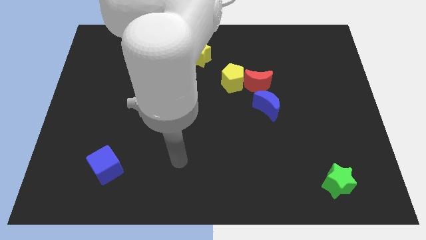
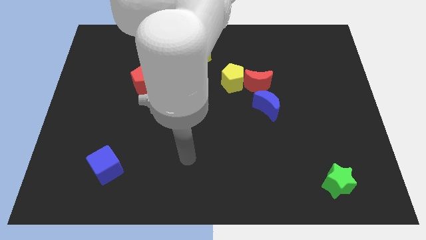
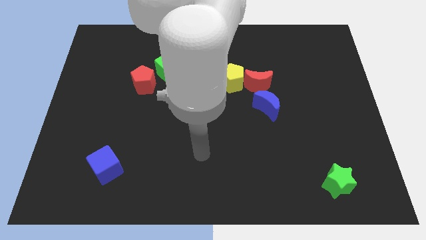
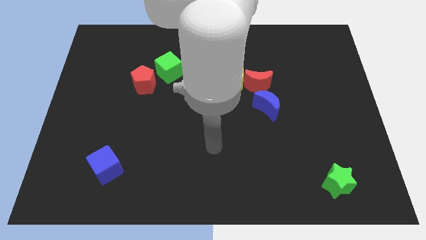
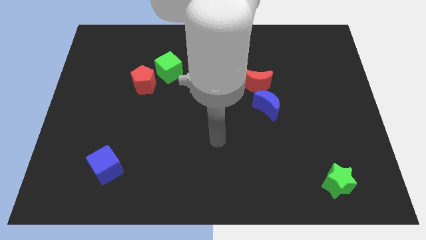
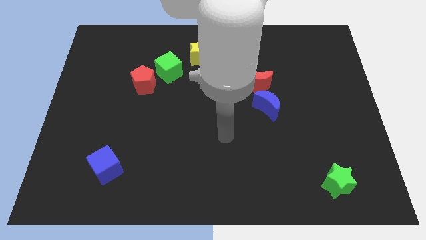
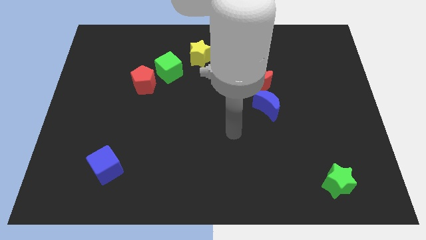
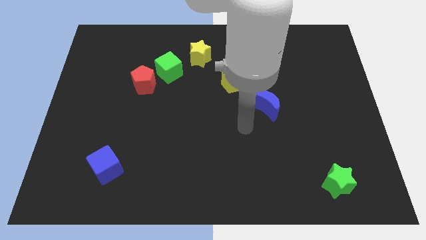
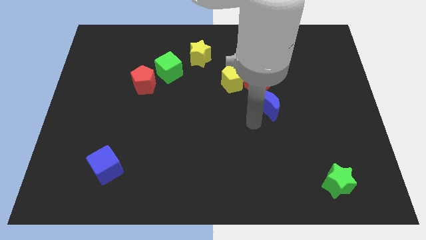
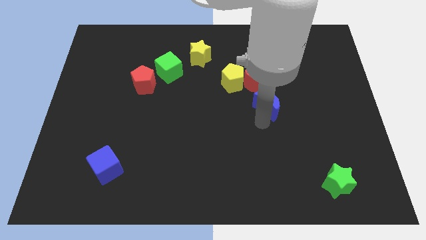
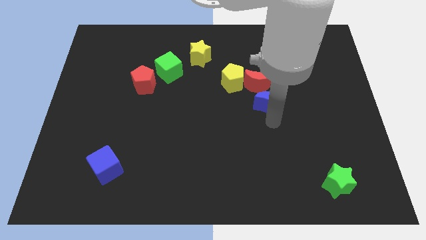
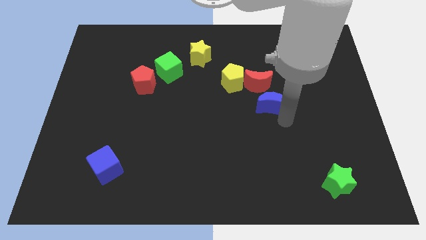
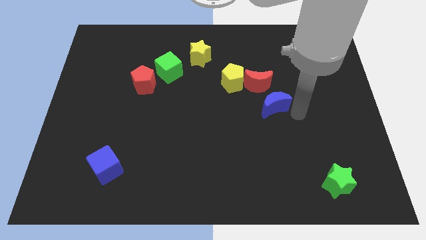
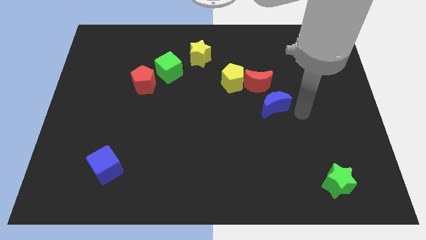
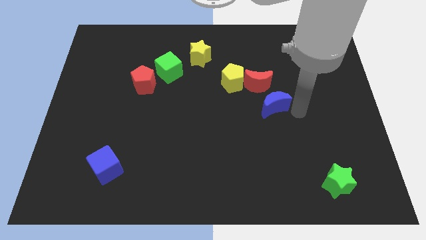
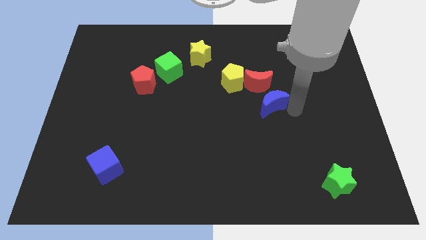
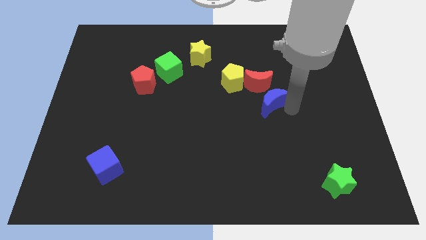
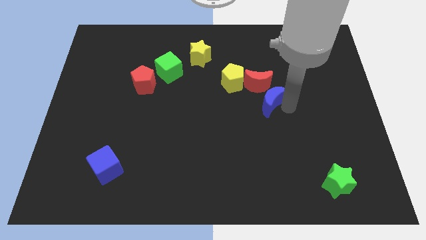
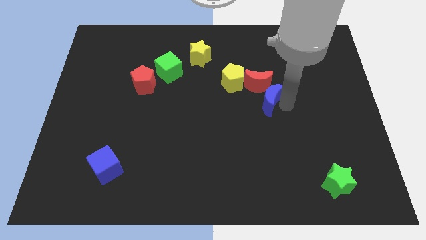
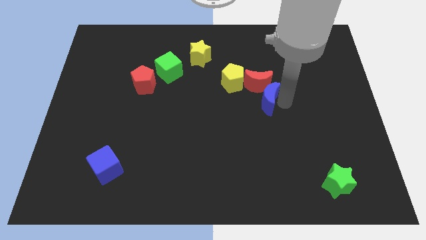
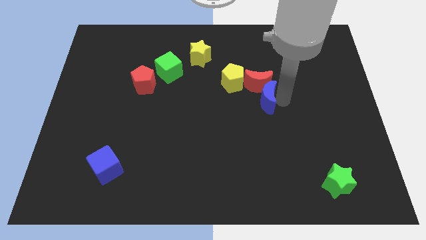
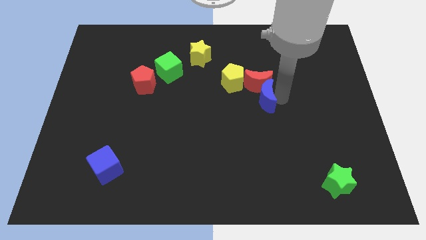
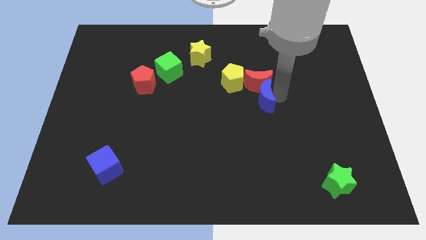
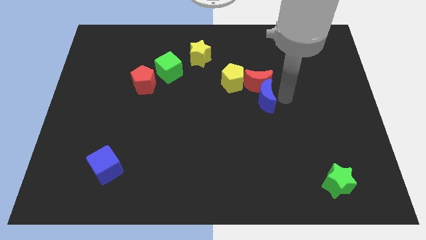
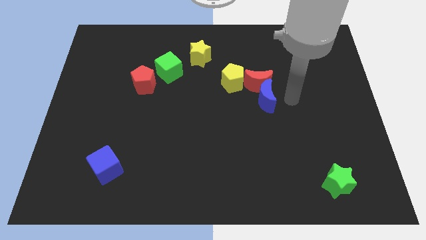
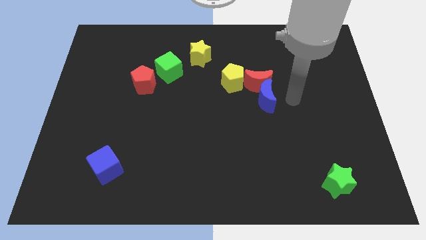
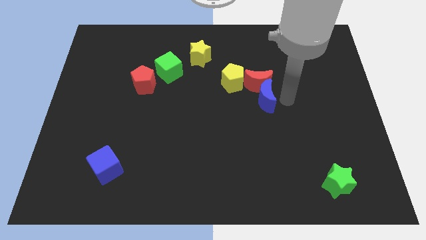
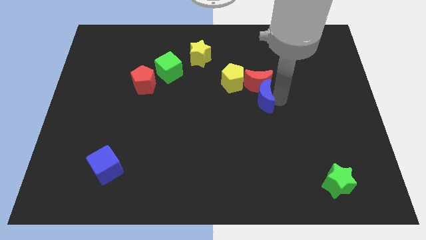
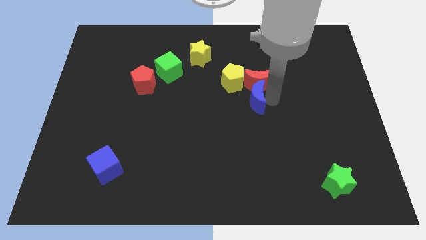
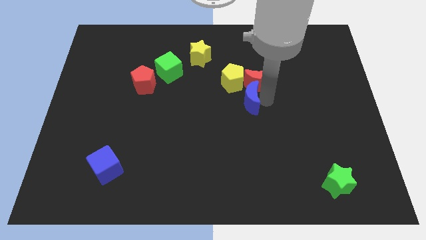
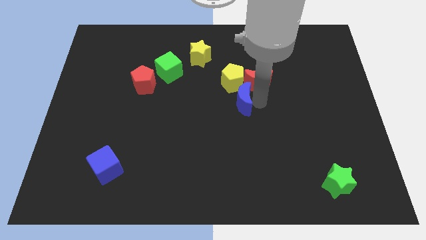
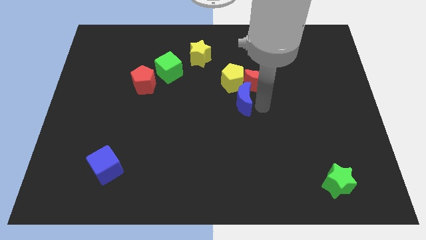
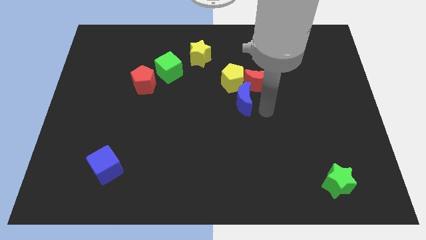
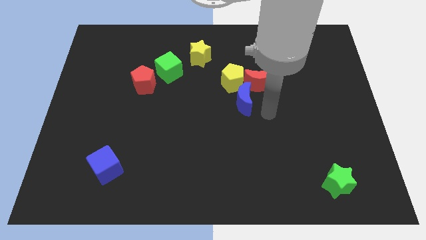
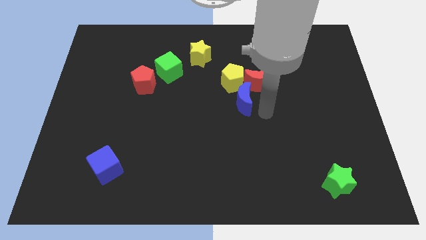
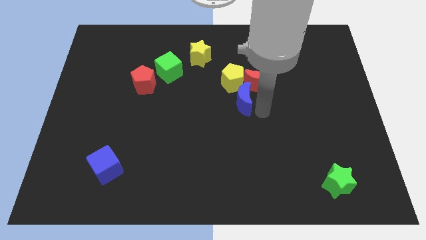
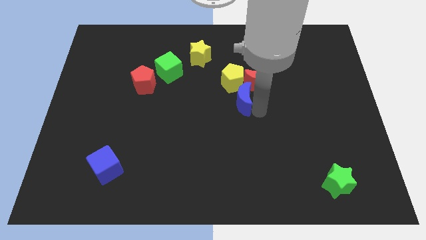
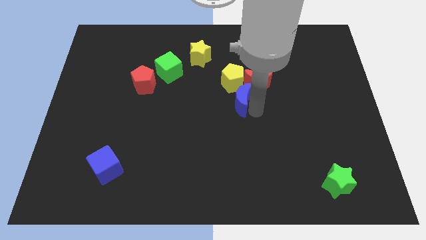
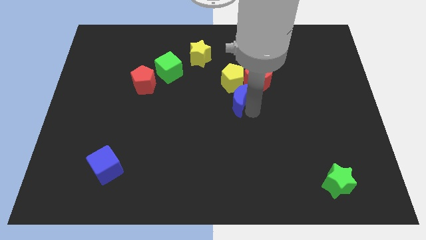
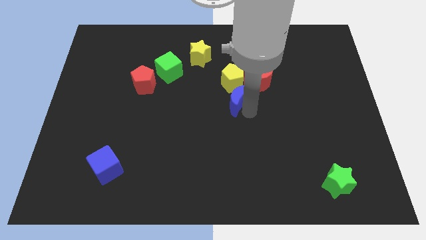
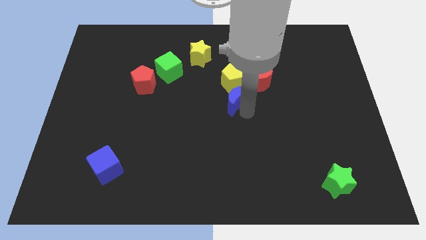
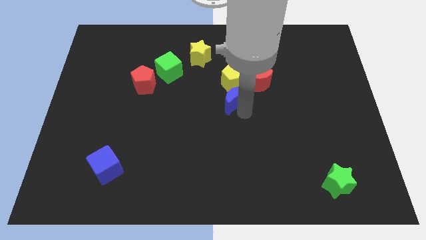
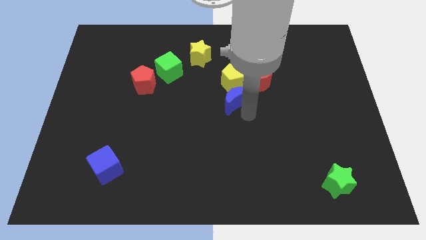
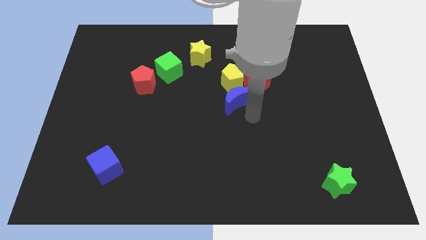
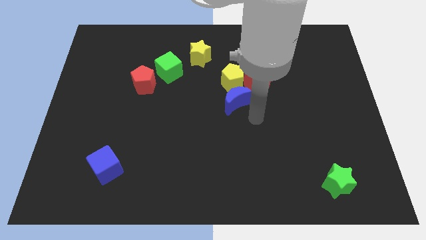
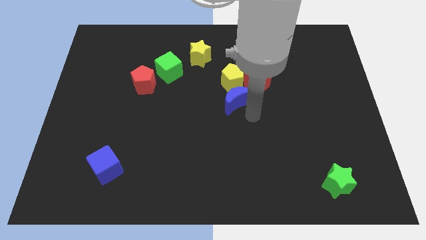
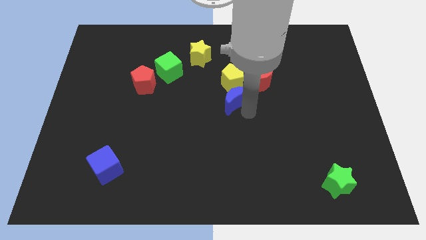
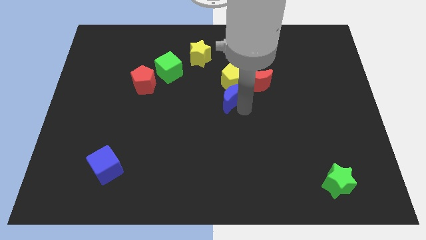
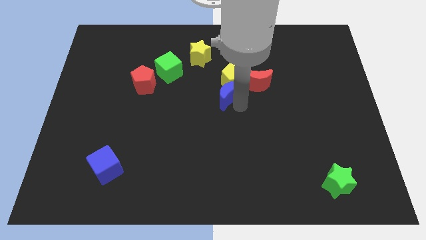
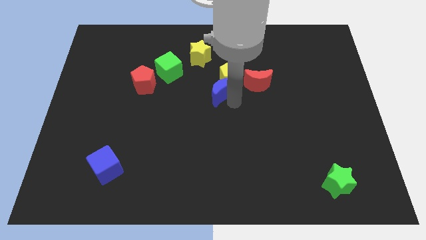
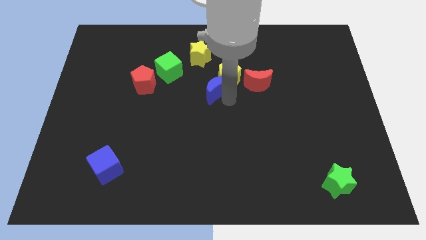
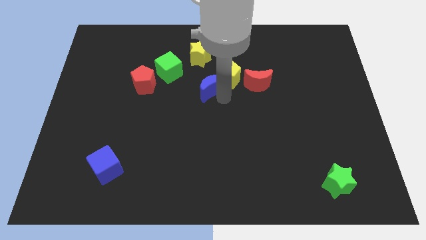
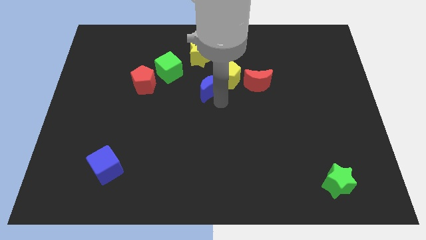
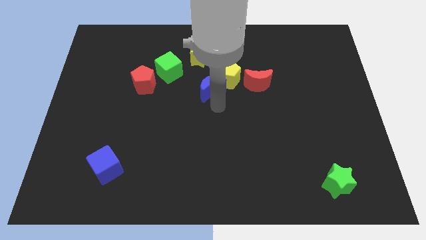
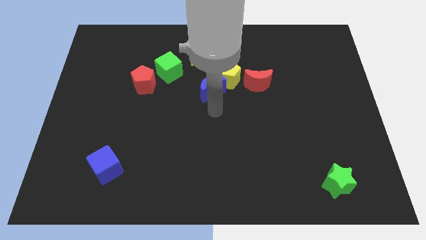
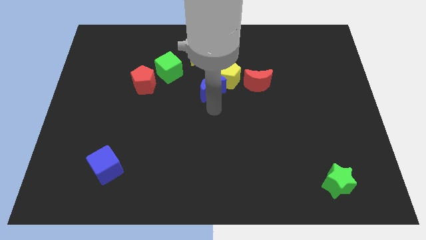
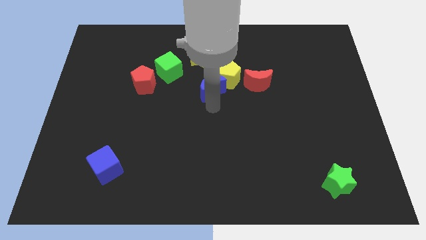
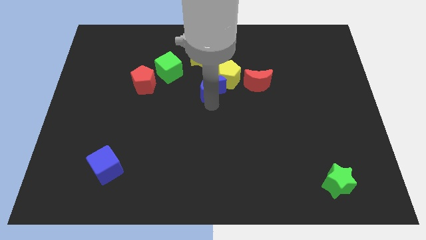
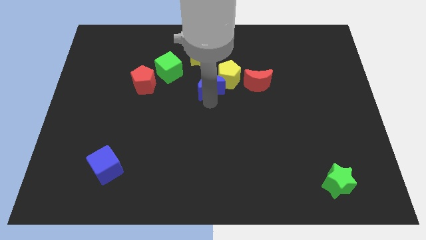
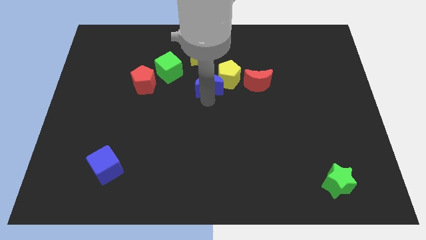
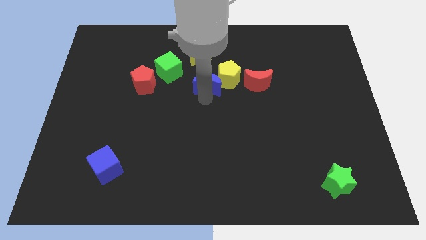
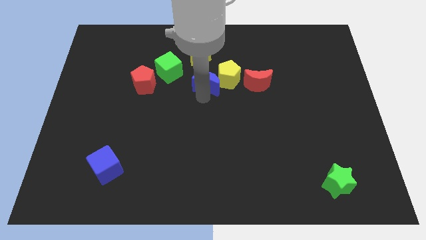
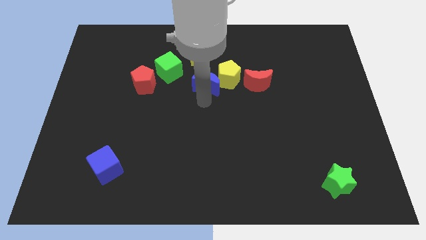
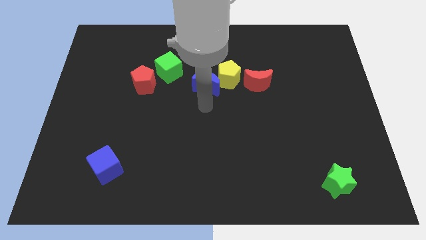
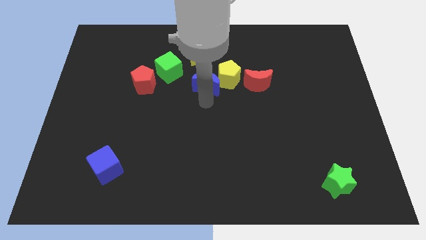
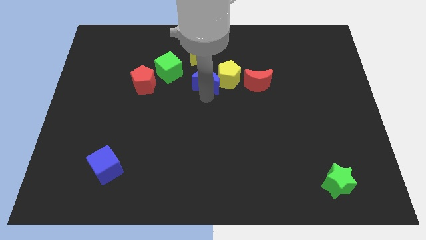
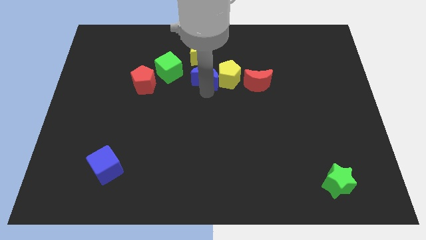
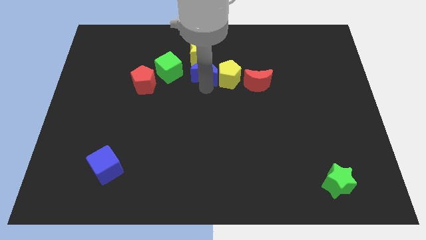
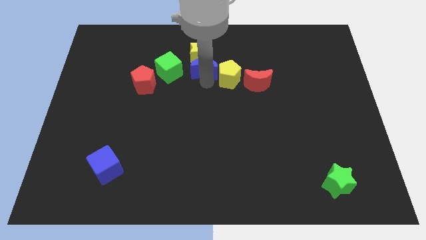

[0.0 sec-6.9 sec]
move the blue moon next to the yellow star

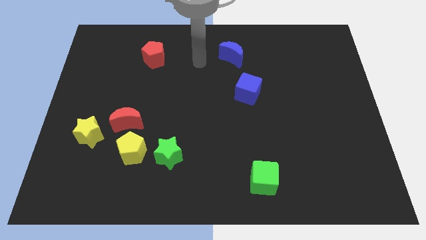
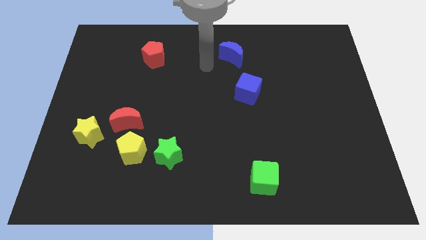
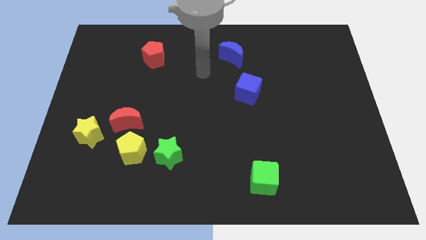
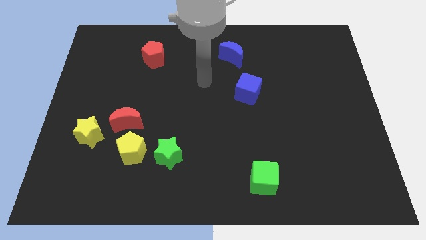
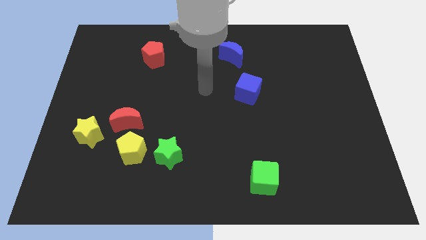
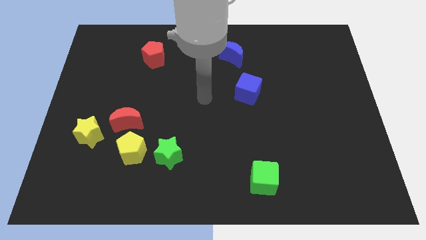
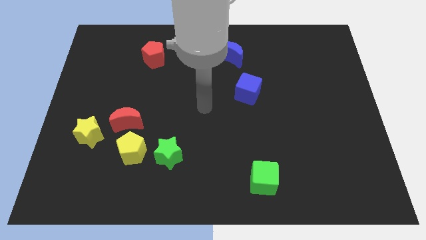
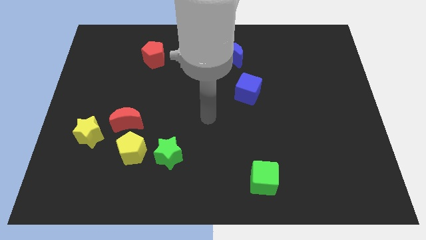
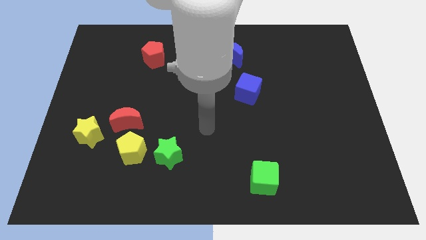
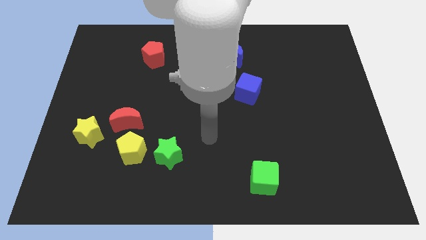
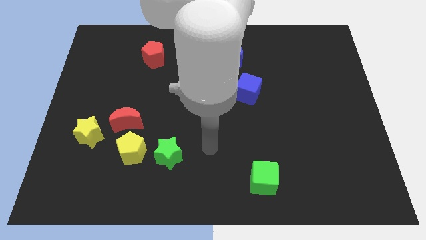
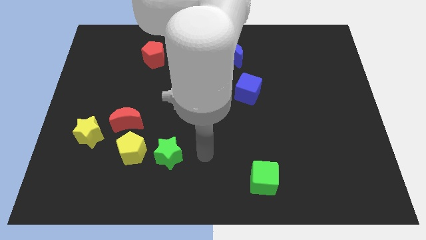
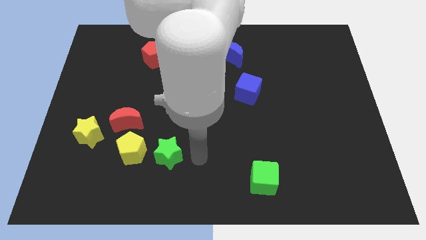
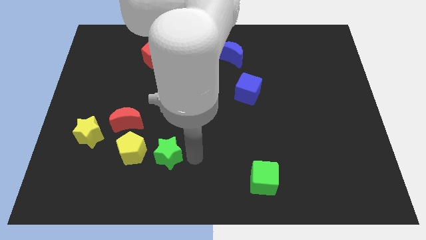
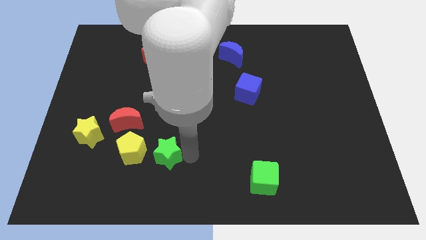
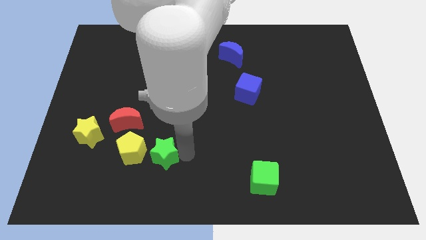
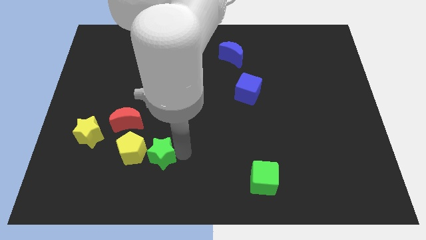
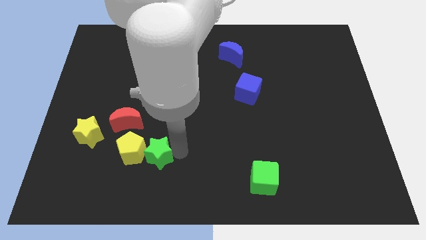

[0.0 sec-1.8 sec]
push the green star to the yellow pentagon
